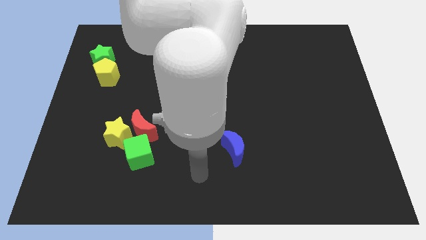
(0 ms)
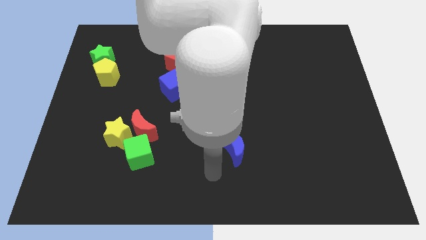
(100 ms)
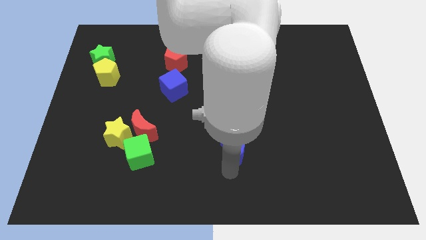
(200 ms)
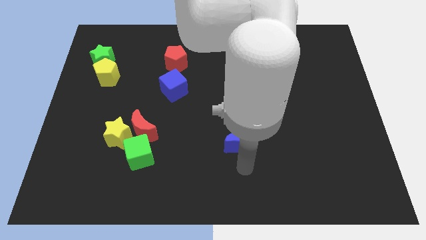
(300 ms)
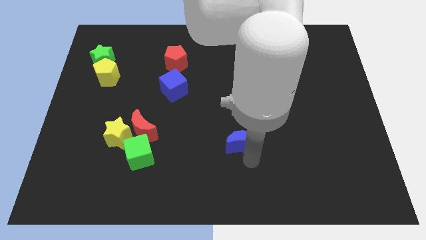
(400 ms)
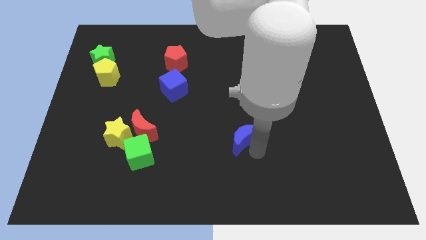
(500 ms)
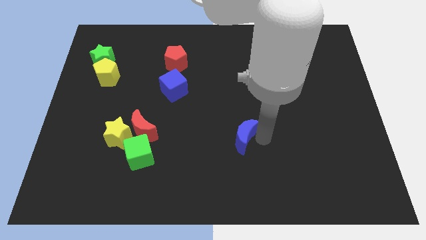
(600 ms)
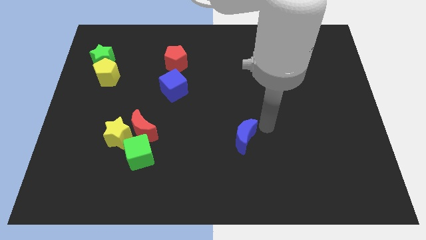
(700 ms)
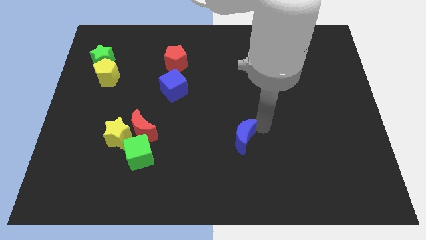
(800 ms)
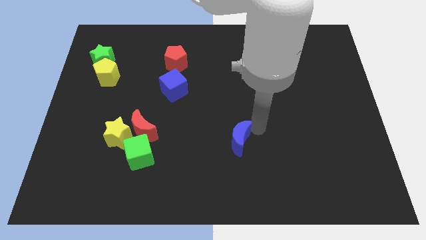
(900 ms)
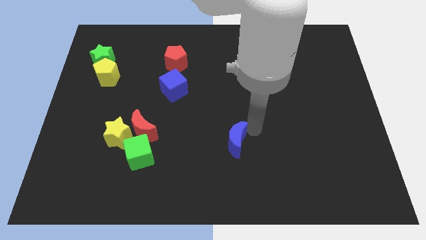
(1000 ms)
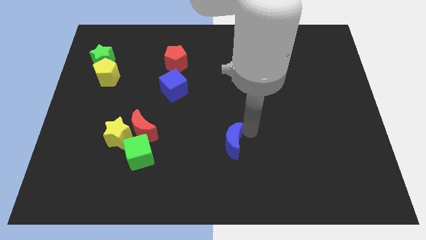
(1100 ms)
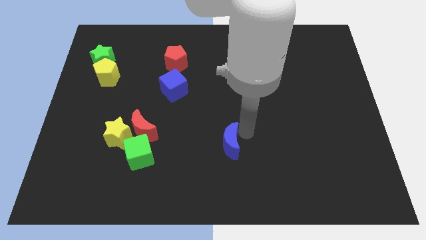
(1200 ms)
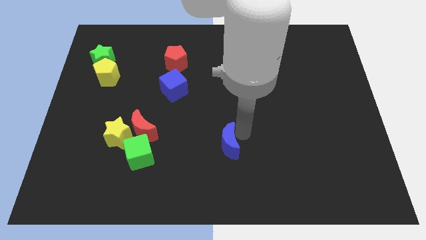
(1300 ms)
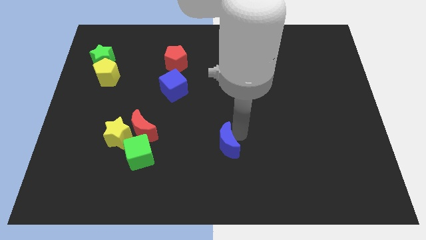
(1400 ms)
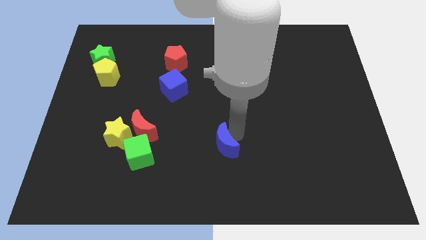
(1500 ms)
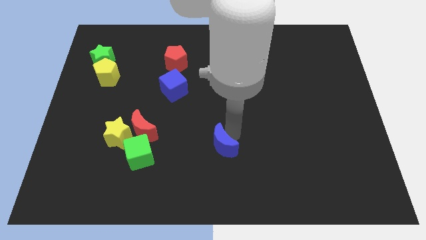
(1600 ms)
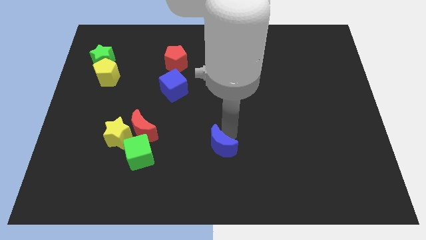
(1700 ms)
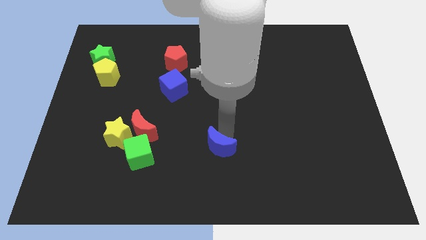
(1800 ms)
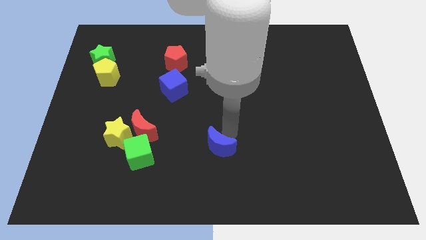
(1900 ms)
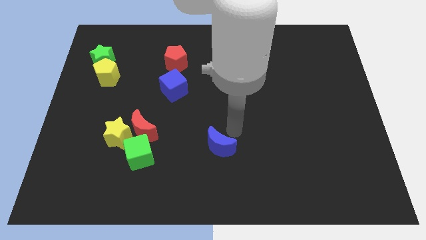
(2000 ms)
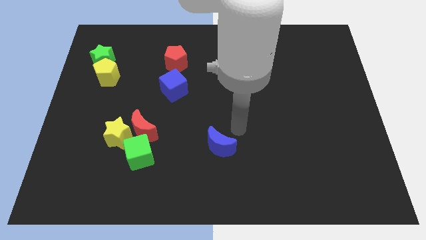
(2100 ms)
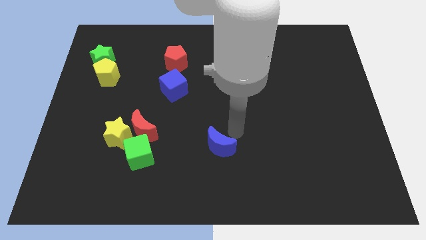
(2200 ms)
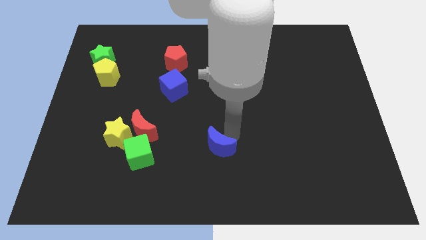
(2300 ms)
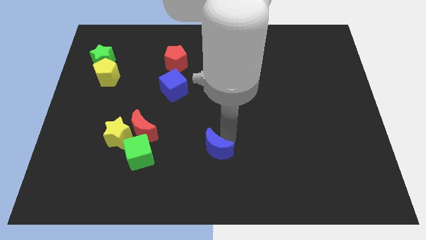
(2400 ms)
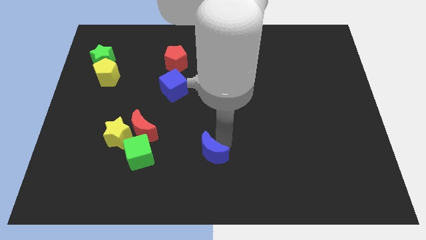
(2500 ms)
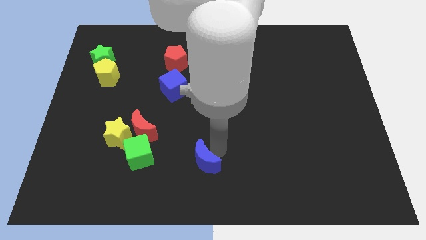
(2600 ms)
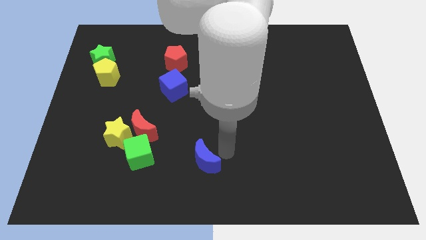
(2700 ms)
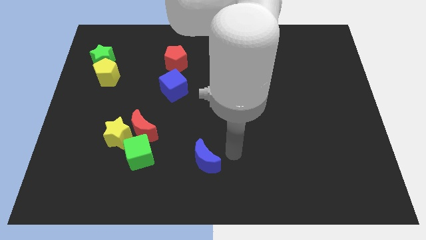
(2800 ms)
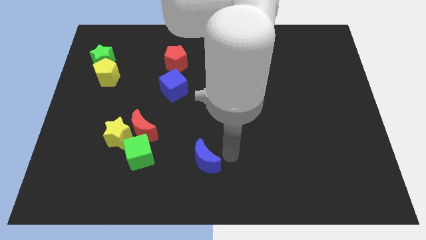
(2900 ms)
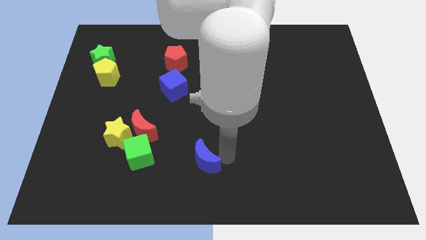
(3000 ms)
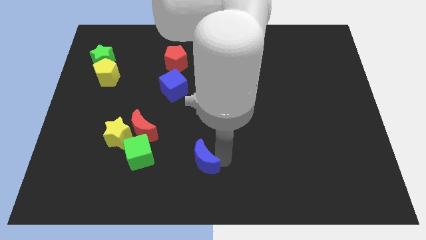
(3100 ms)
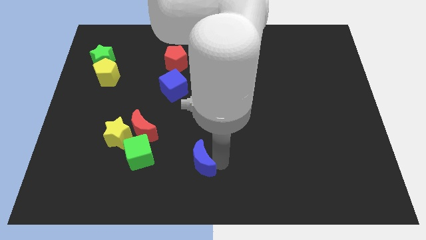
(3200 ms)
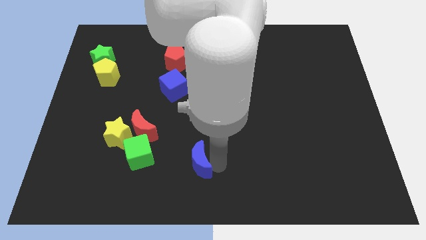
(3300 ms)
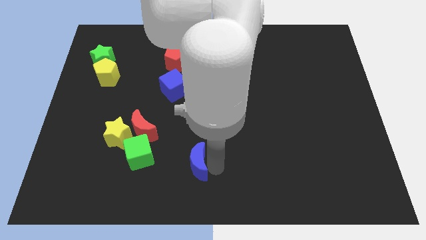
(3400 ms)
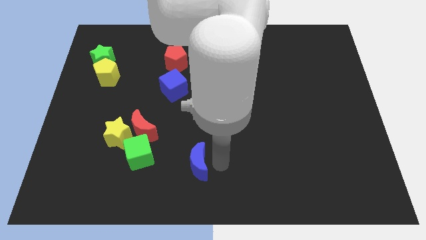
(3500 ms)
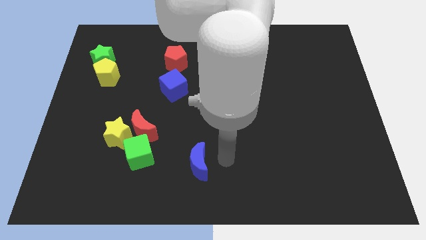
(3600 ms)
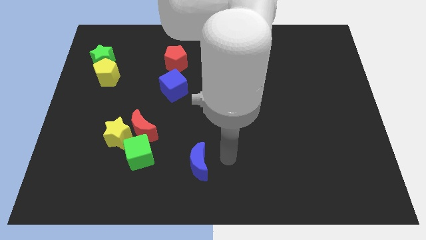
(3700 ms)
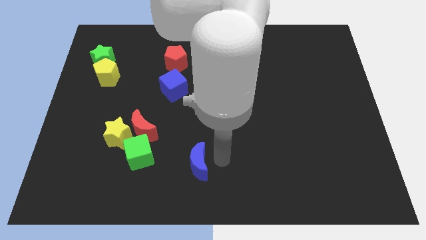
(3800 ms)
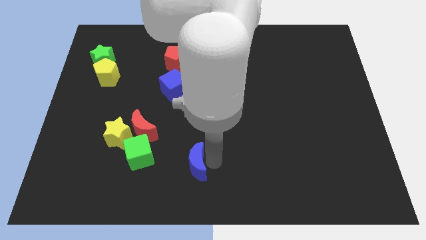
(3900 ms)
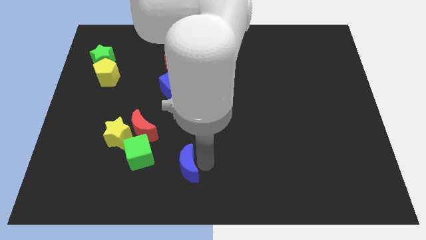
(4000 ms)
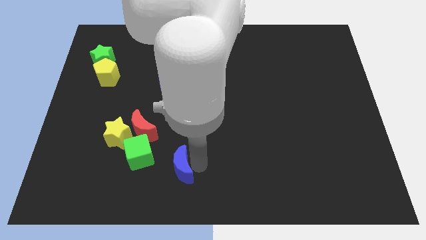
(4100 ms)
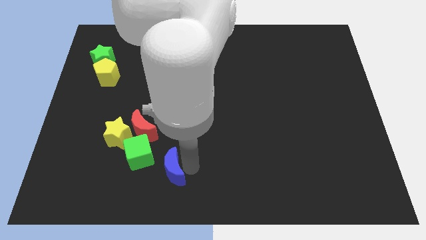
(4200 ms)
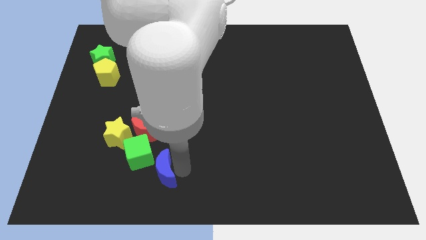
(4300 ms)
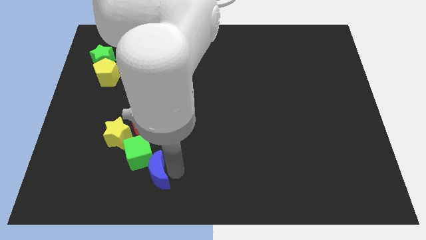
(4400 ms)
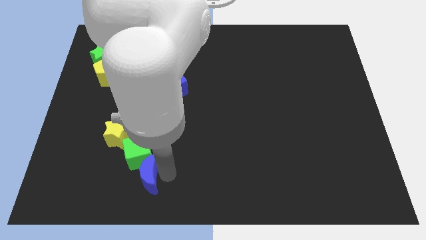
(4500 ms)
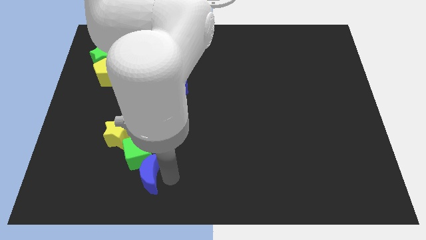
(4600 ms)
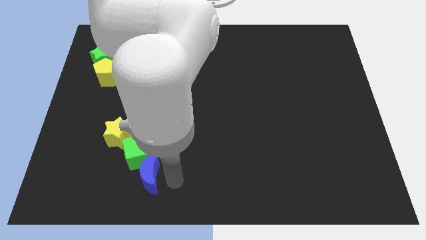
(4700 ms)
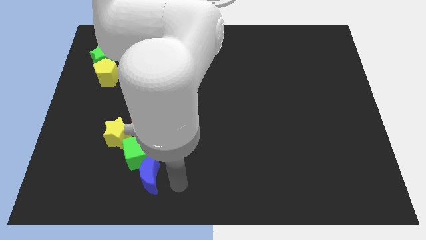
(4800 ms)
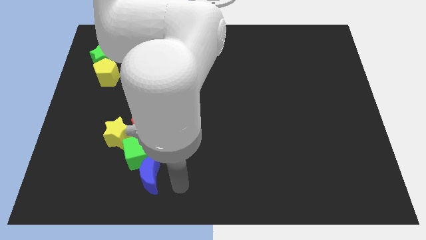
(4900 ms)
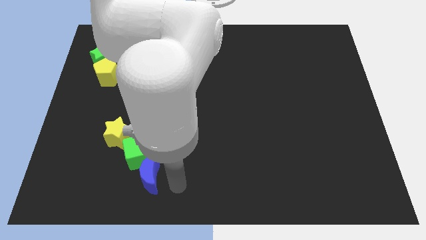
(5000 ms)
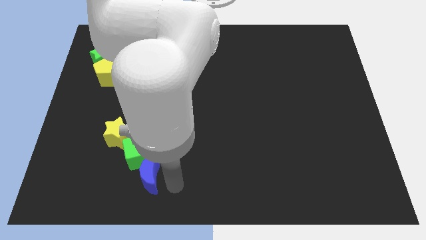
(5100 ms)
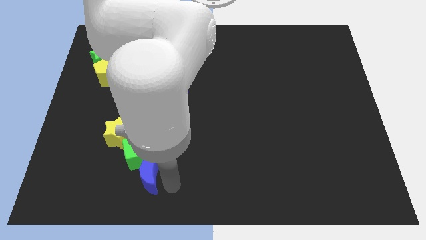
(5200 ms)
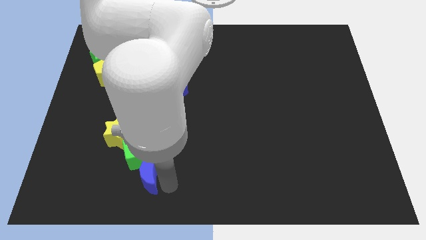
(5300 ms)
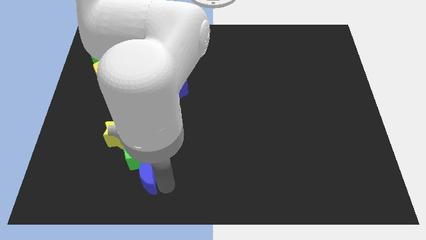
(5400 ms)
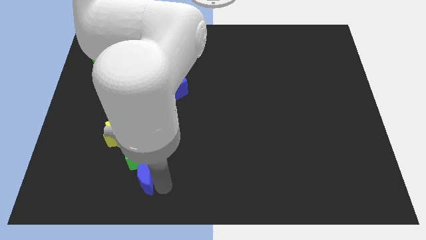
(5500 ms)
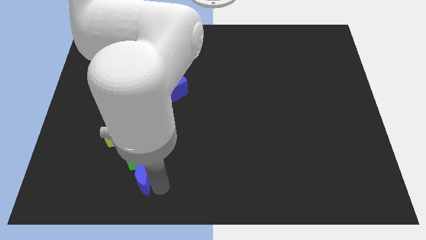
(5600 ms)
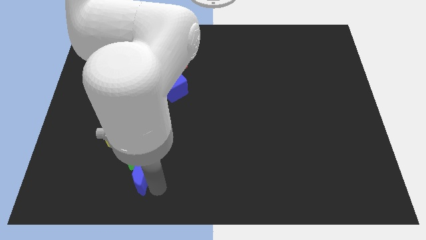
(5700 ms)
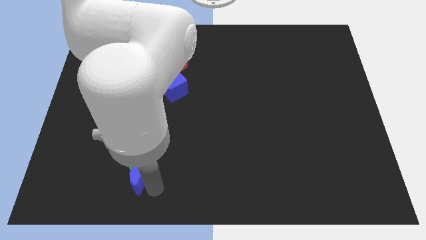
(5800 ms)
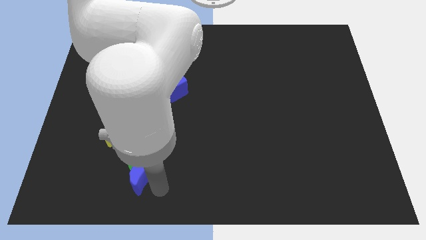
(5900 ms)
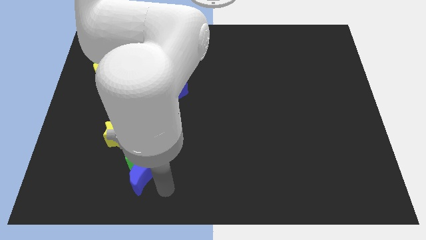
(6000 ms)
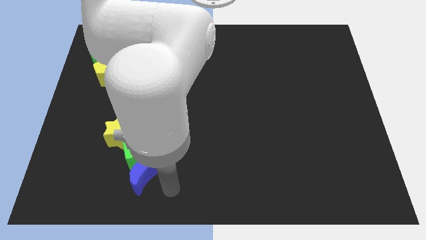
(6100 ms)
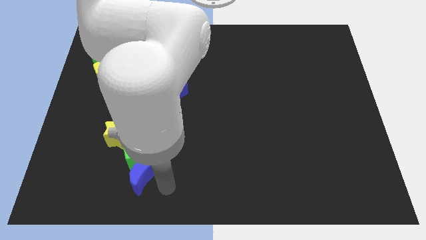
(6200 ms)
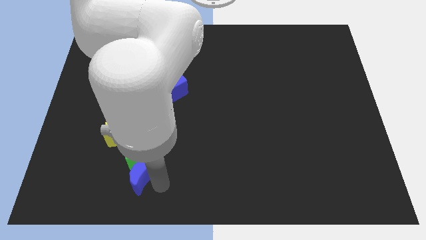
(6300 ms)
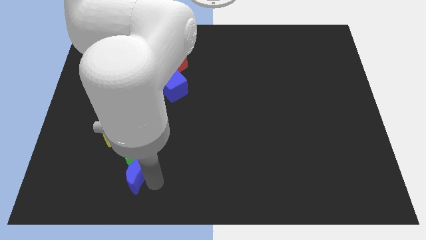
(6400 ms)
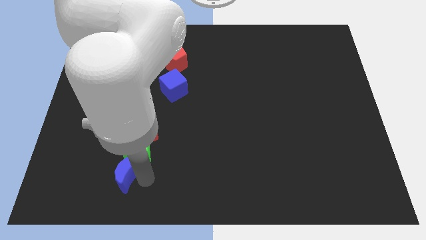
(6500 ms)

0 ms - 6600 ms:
push the blue moon to the left

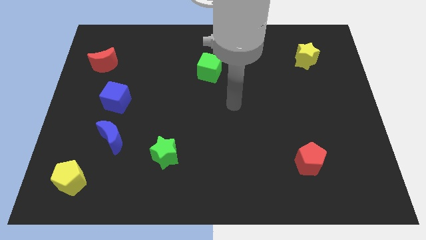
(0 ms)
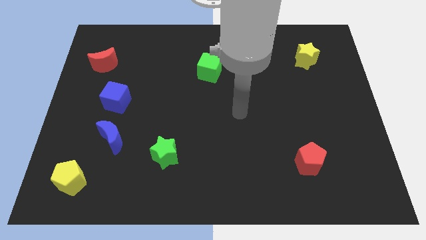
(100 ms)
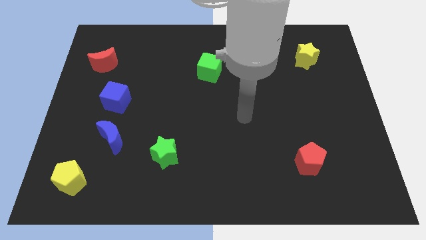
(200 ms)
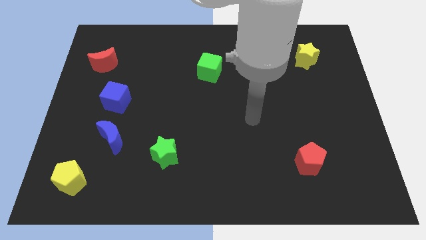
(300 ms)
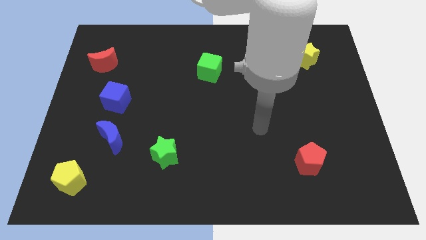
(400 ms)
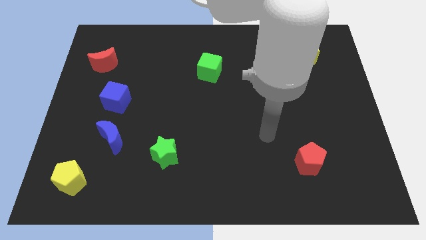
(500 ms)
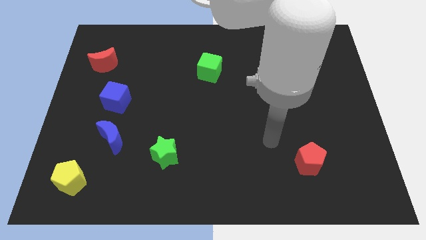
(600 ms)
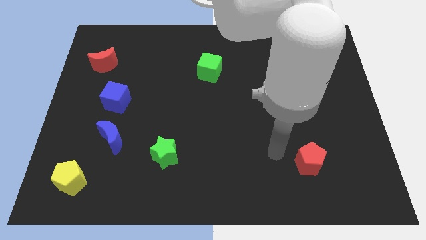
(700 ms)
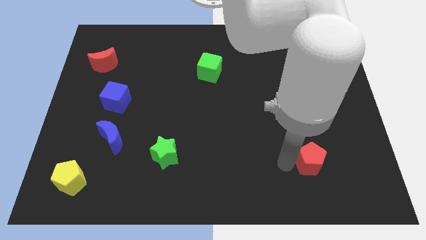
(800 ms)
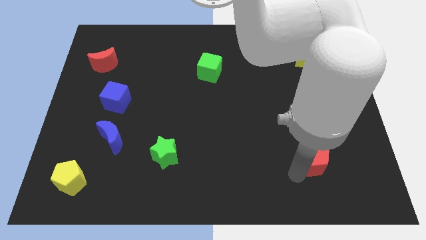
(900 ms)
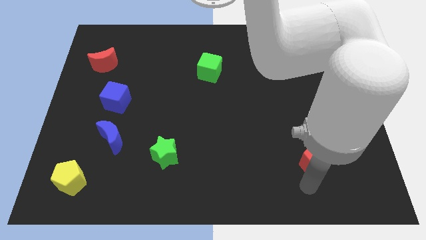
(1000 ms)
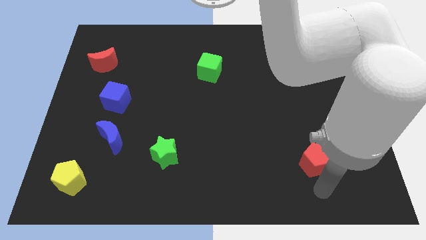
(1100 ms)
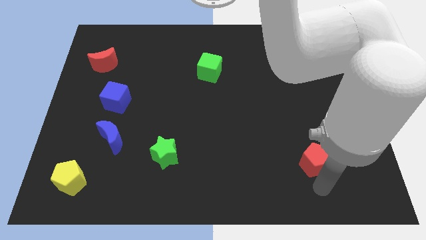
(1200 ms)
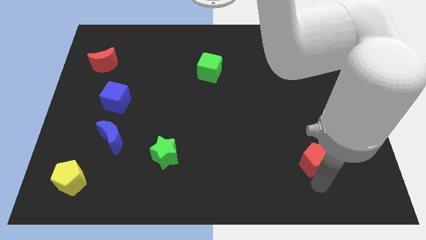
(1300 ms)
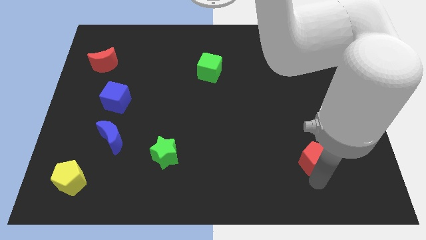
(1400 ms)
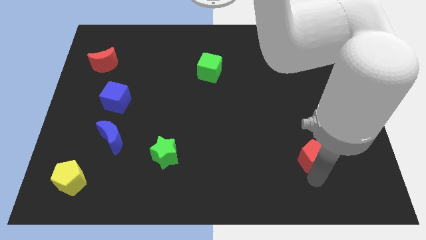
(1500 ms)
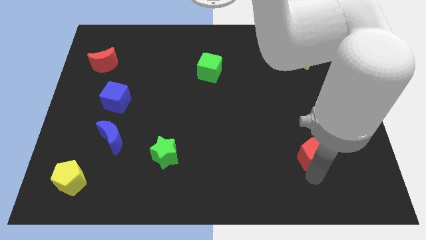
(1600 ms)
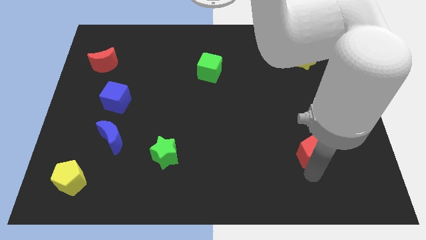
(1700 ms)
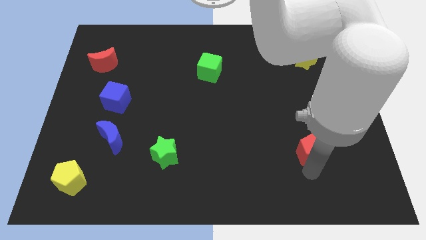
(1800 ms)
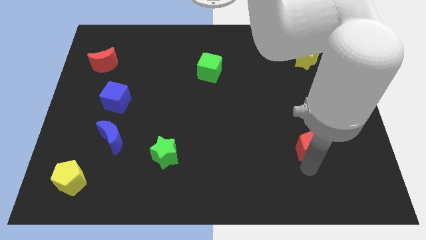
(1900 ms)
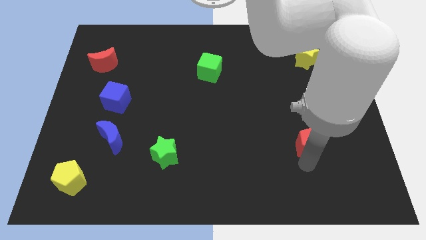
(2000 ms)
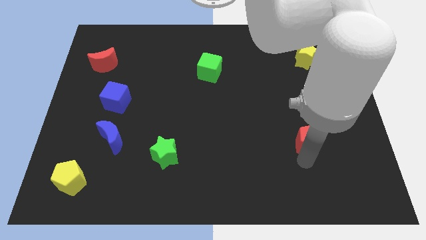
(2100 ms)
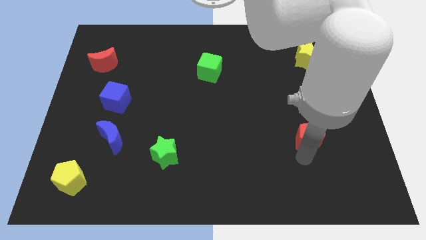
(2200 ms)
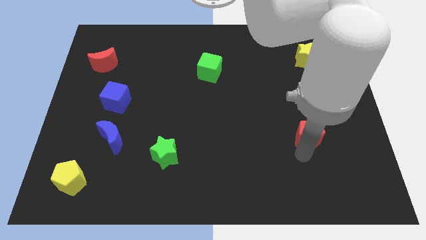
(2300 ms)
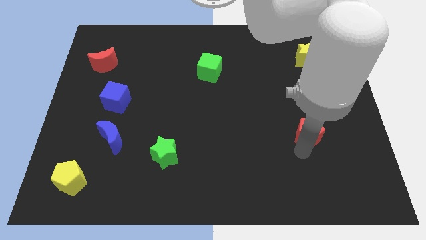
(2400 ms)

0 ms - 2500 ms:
push the red pentagon a little up
